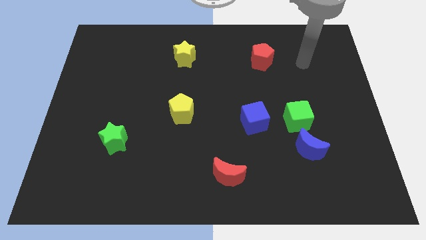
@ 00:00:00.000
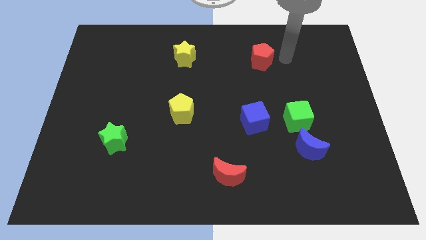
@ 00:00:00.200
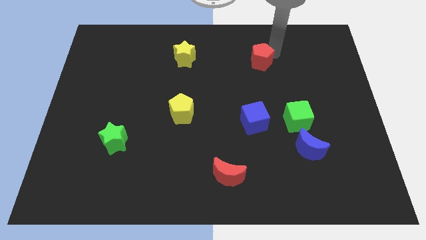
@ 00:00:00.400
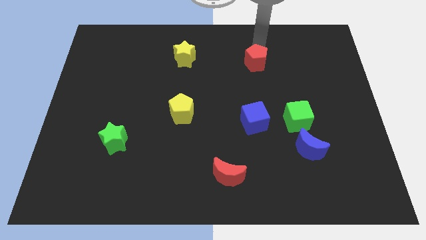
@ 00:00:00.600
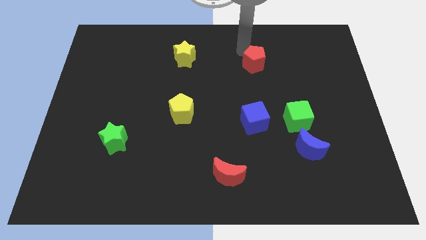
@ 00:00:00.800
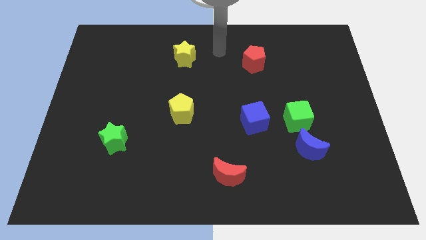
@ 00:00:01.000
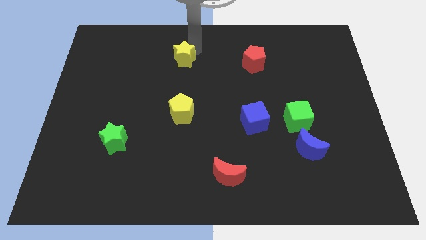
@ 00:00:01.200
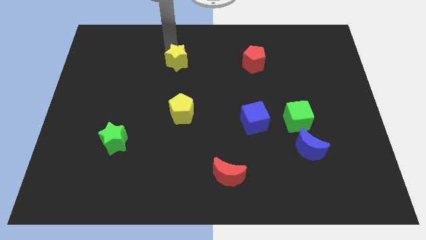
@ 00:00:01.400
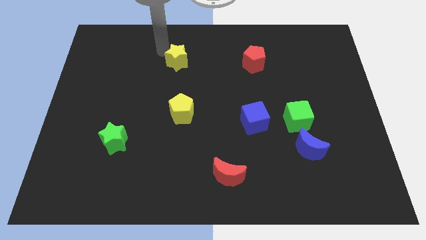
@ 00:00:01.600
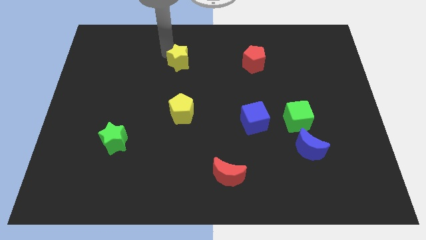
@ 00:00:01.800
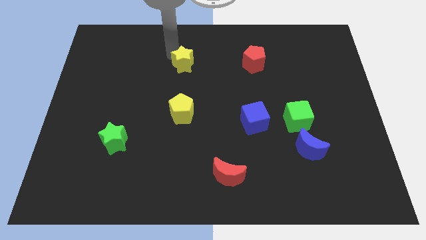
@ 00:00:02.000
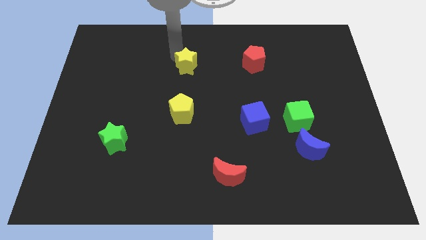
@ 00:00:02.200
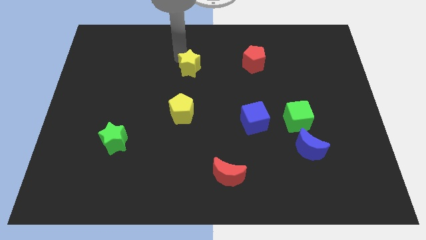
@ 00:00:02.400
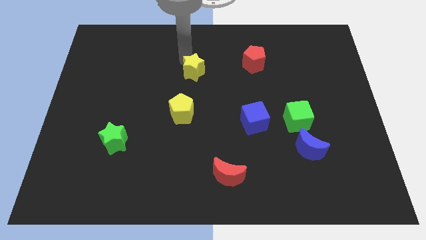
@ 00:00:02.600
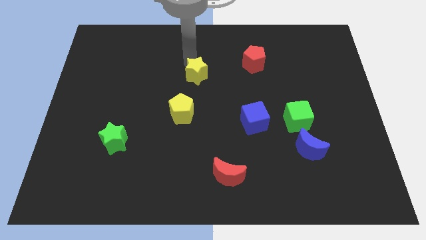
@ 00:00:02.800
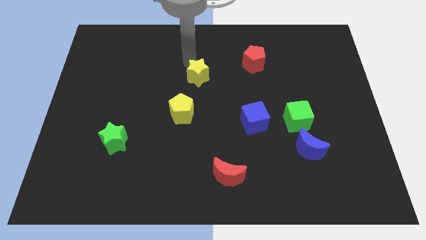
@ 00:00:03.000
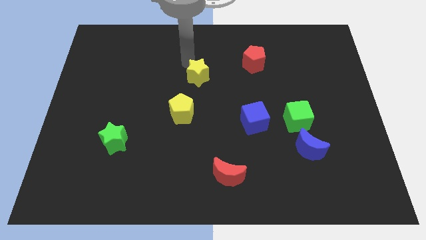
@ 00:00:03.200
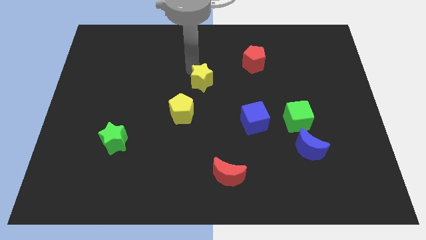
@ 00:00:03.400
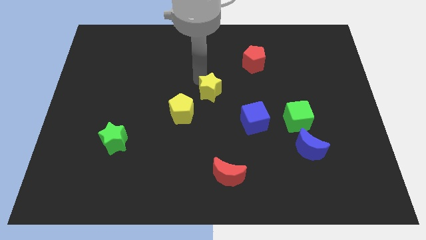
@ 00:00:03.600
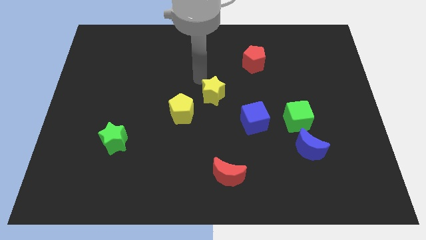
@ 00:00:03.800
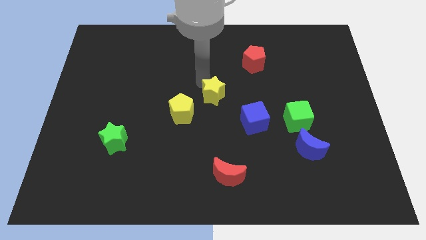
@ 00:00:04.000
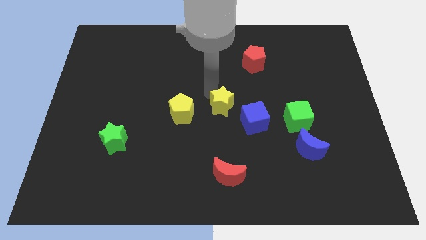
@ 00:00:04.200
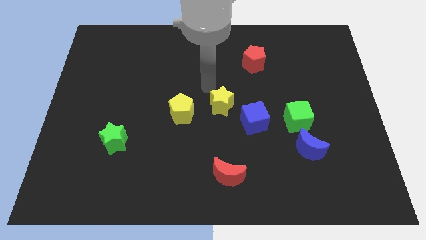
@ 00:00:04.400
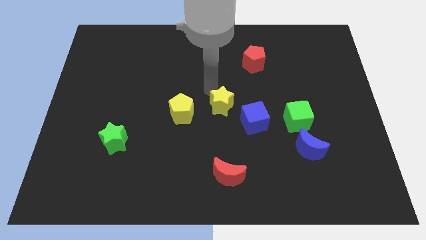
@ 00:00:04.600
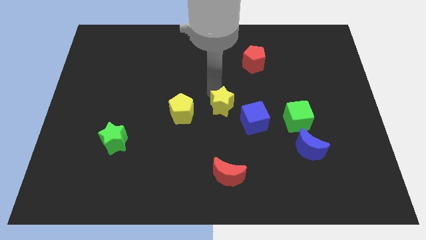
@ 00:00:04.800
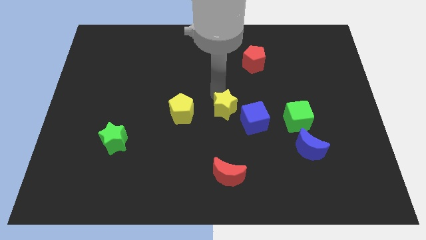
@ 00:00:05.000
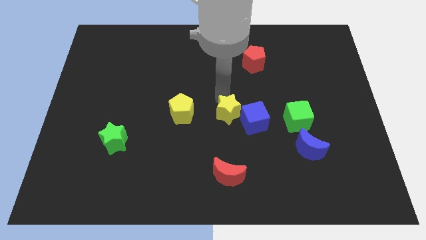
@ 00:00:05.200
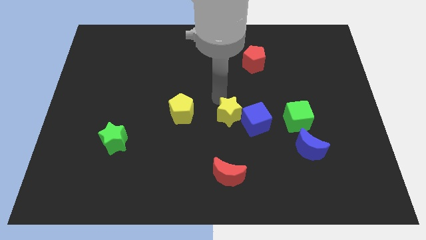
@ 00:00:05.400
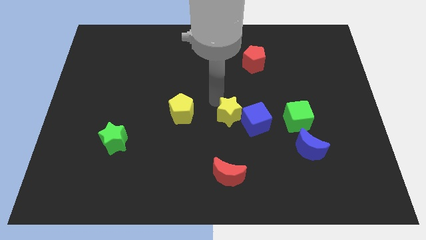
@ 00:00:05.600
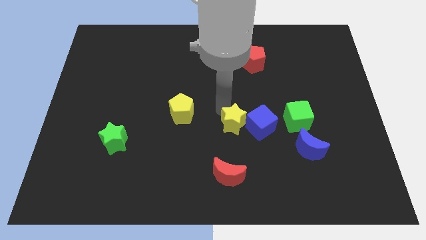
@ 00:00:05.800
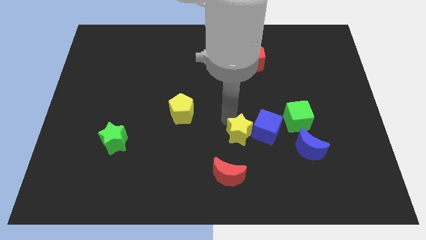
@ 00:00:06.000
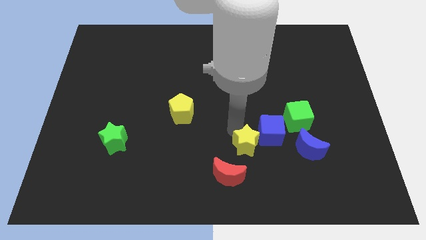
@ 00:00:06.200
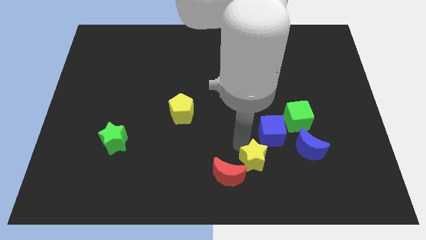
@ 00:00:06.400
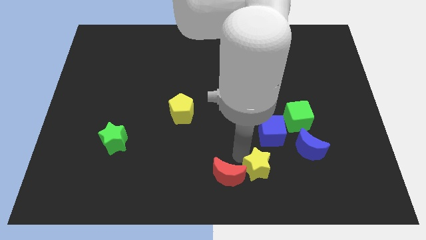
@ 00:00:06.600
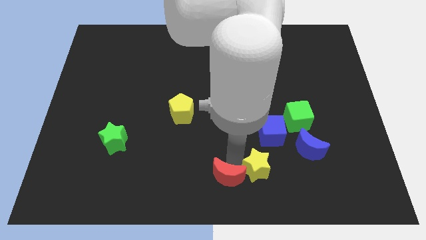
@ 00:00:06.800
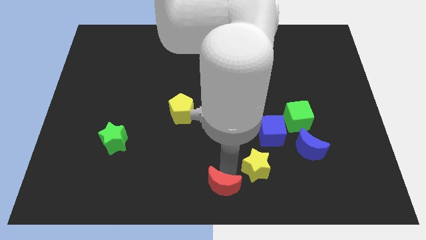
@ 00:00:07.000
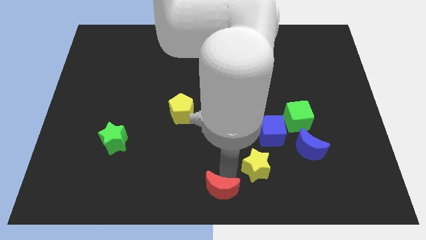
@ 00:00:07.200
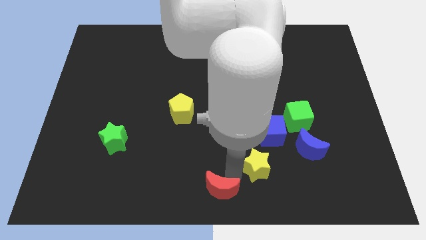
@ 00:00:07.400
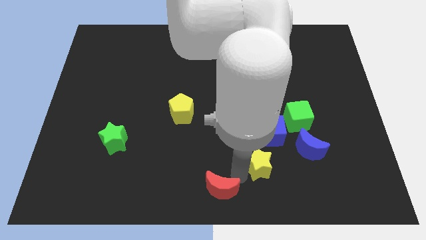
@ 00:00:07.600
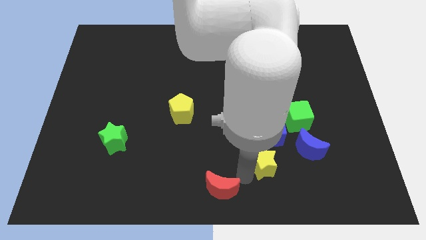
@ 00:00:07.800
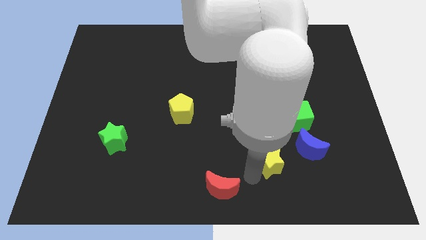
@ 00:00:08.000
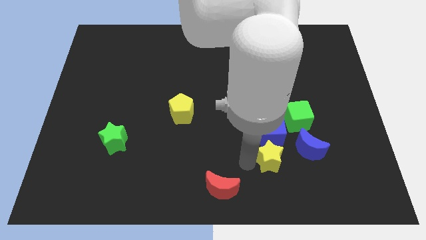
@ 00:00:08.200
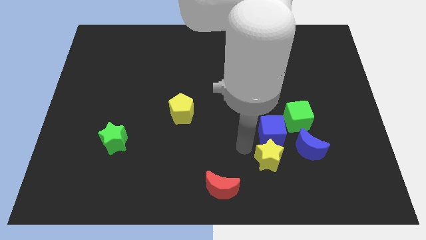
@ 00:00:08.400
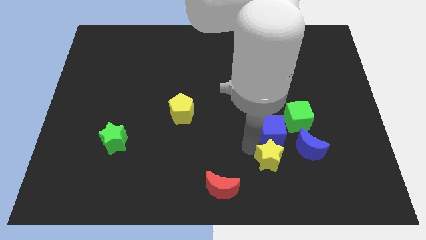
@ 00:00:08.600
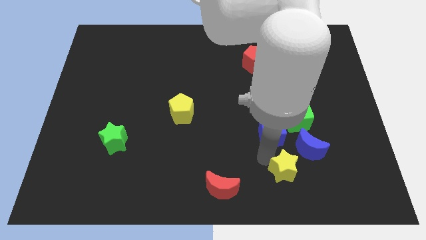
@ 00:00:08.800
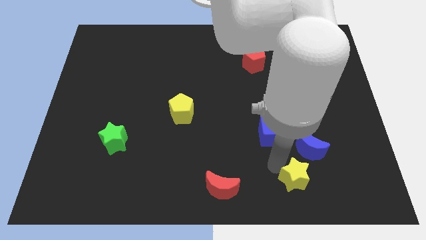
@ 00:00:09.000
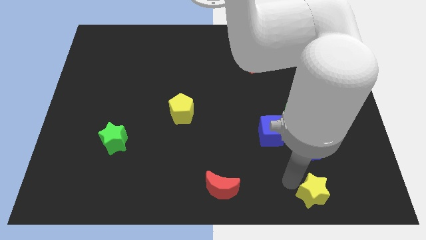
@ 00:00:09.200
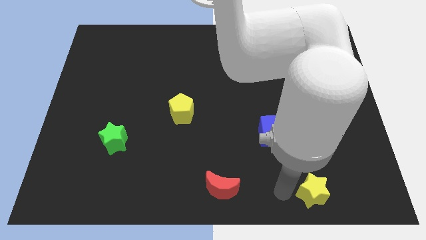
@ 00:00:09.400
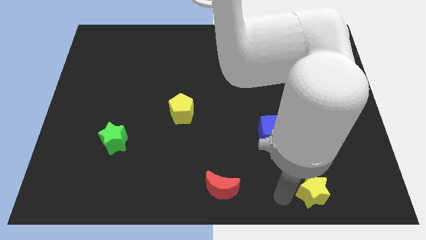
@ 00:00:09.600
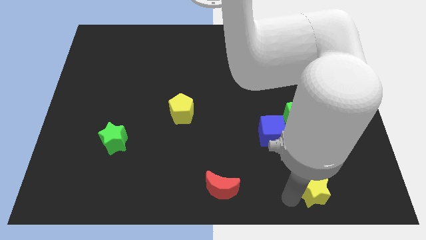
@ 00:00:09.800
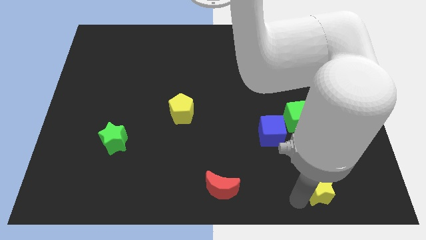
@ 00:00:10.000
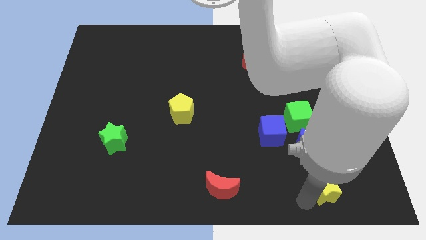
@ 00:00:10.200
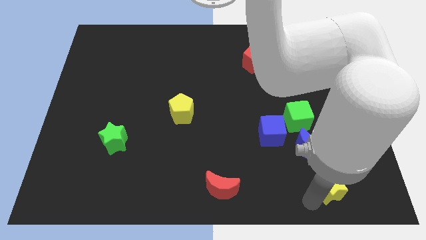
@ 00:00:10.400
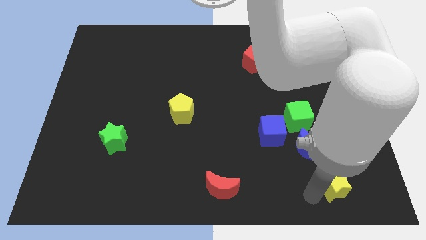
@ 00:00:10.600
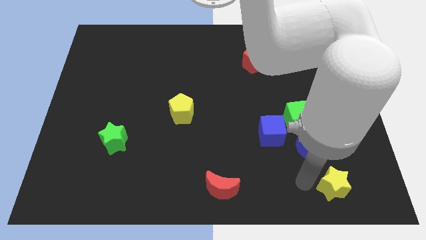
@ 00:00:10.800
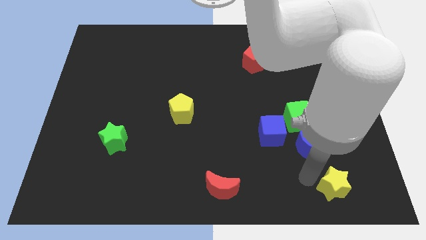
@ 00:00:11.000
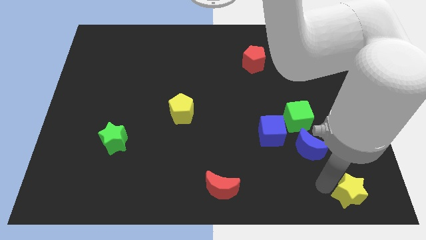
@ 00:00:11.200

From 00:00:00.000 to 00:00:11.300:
move the yellow star to the bottom right corner

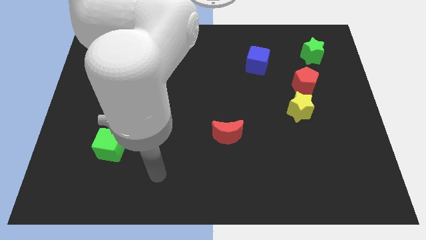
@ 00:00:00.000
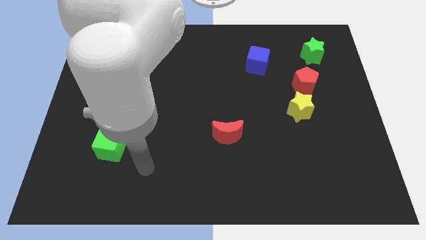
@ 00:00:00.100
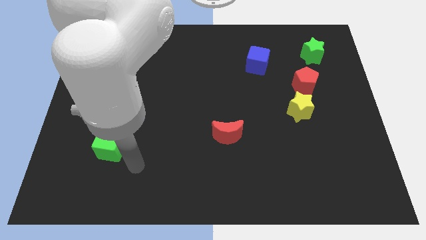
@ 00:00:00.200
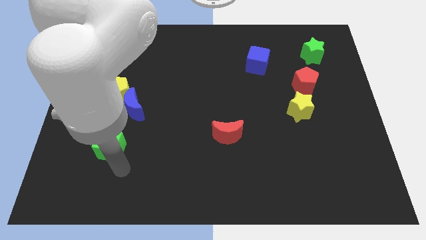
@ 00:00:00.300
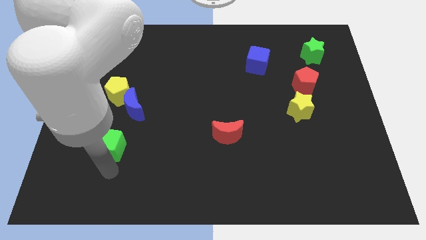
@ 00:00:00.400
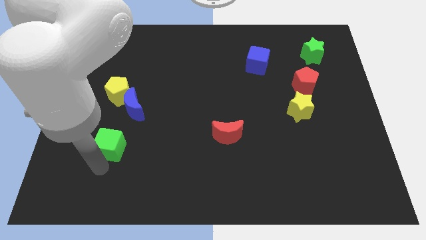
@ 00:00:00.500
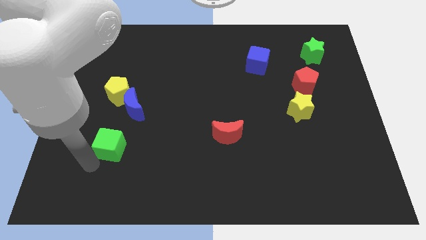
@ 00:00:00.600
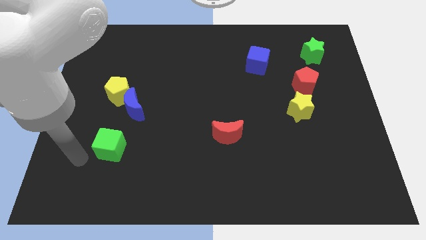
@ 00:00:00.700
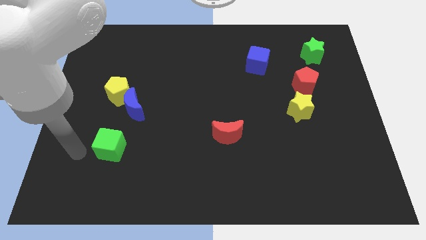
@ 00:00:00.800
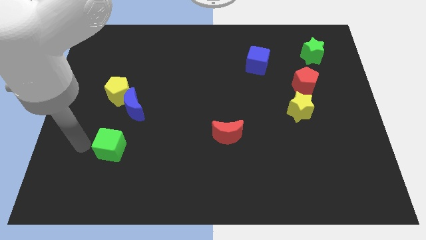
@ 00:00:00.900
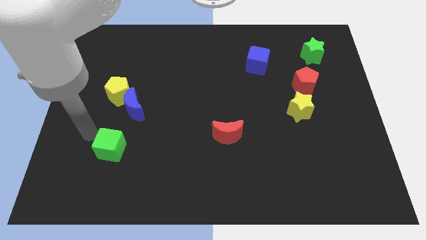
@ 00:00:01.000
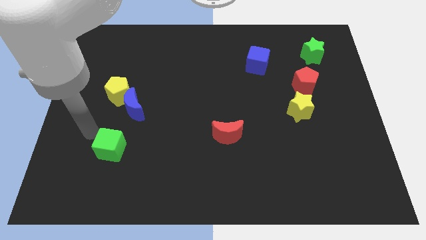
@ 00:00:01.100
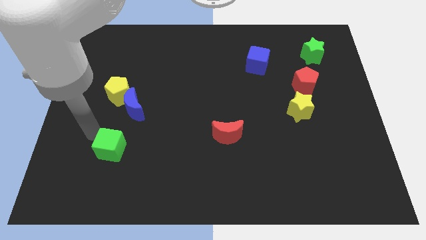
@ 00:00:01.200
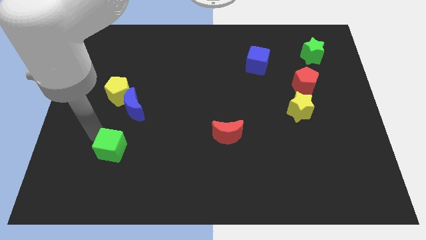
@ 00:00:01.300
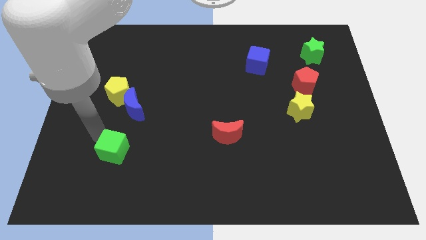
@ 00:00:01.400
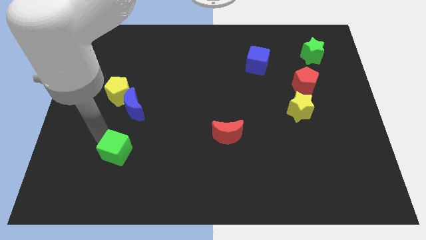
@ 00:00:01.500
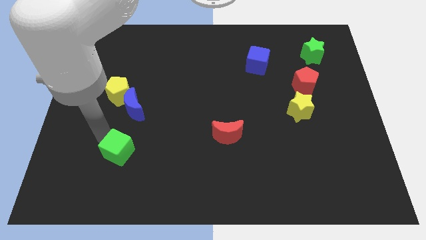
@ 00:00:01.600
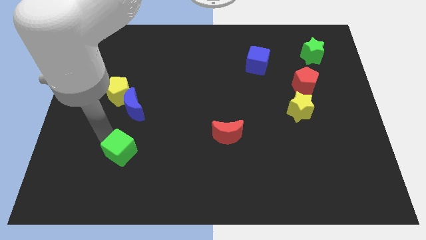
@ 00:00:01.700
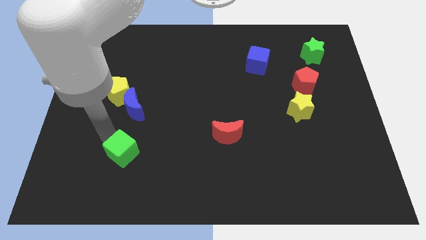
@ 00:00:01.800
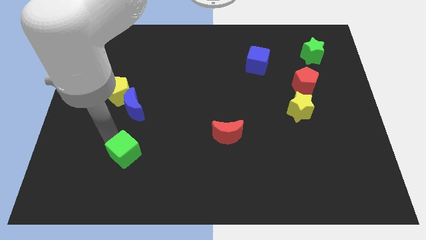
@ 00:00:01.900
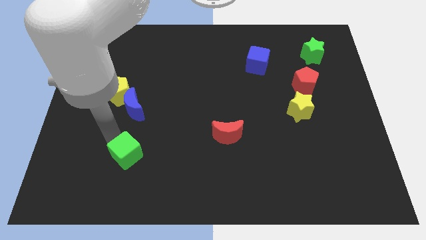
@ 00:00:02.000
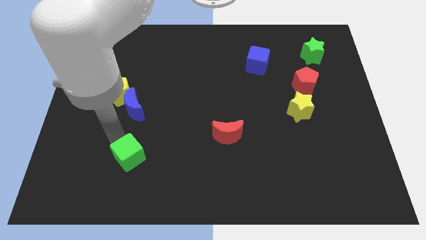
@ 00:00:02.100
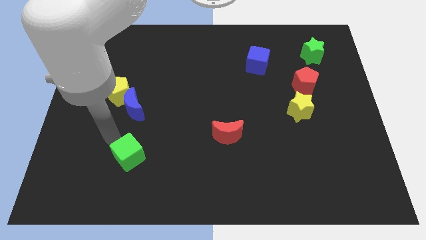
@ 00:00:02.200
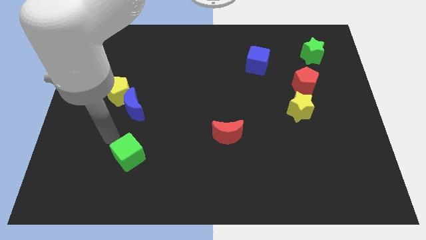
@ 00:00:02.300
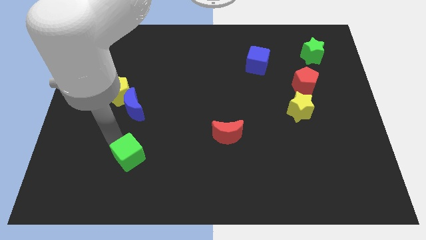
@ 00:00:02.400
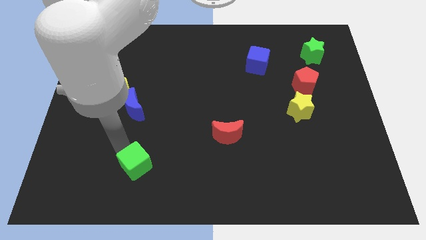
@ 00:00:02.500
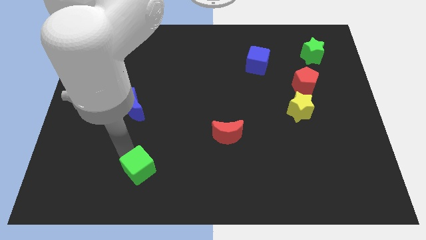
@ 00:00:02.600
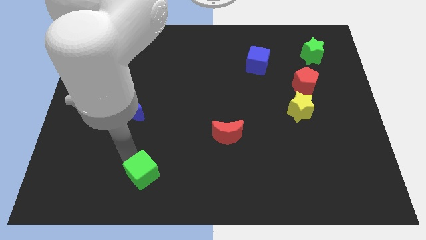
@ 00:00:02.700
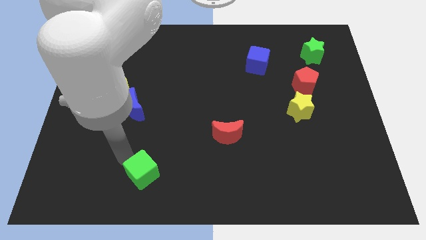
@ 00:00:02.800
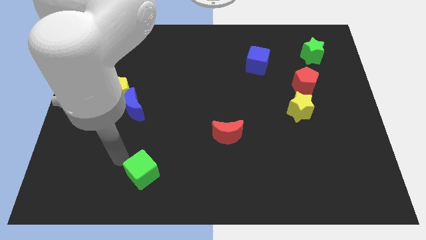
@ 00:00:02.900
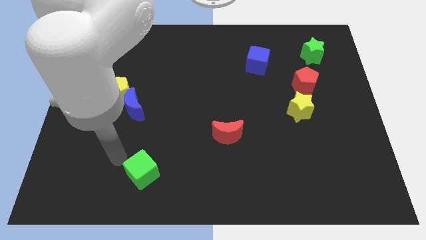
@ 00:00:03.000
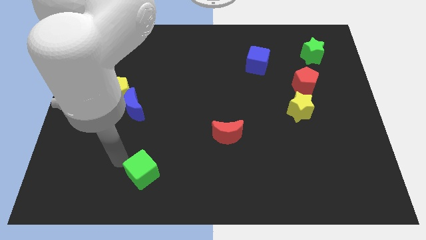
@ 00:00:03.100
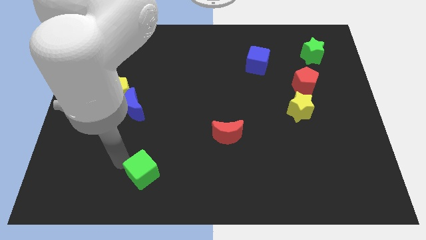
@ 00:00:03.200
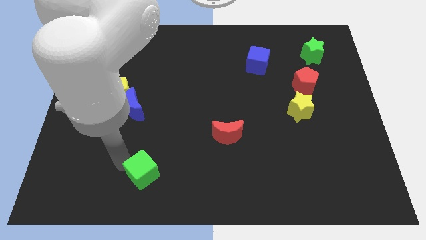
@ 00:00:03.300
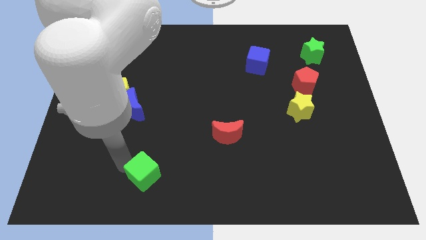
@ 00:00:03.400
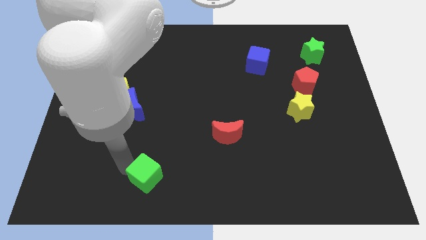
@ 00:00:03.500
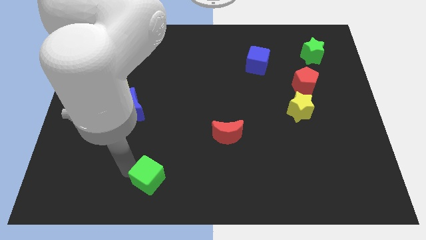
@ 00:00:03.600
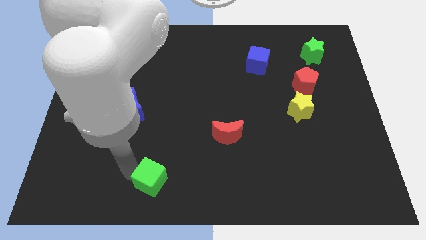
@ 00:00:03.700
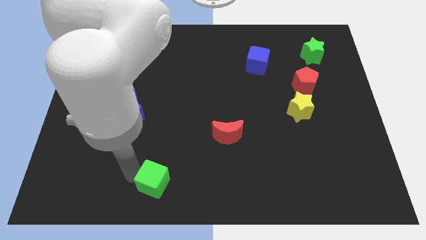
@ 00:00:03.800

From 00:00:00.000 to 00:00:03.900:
push the green cube to the bottom side
